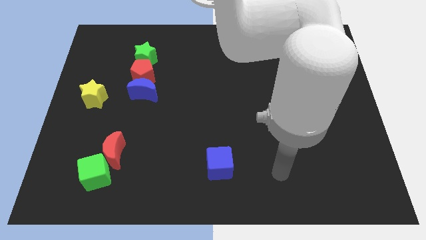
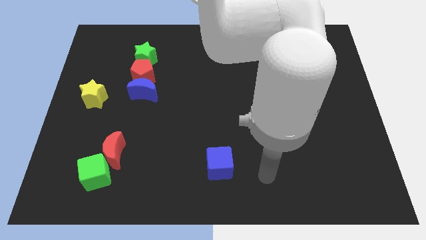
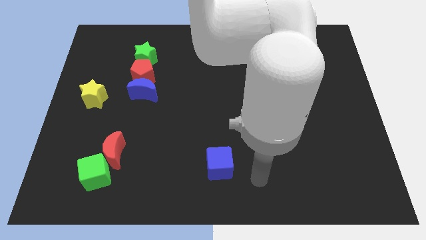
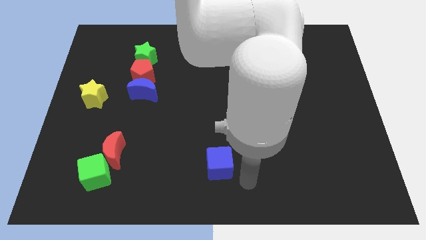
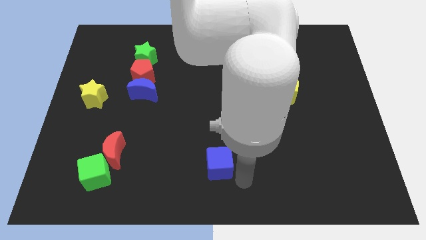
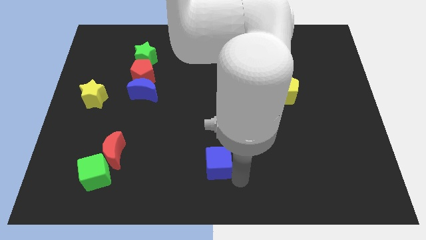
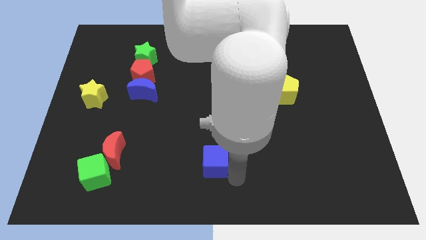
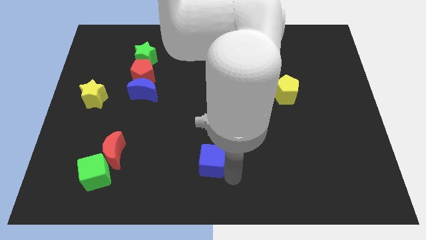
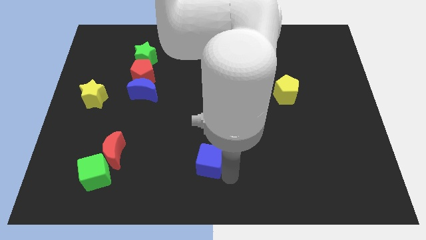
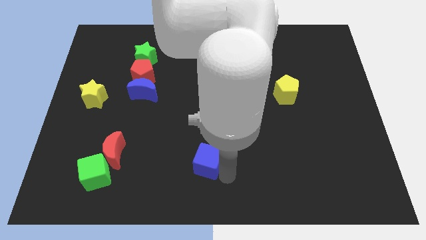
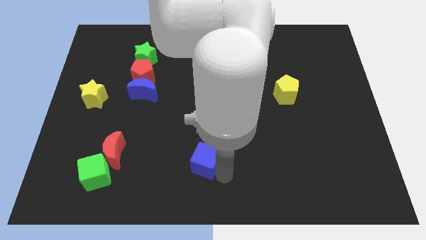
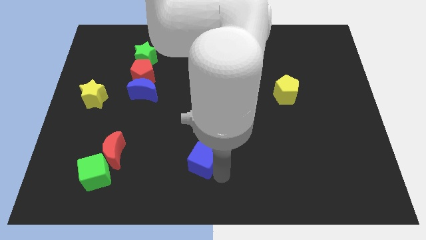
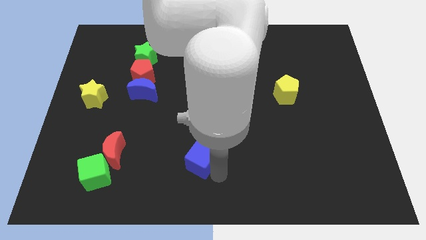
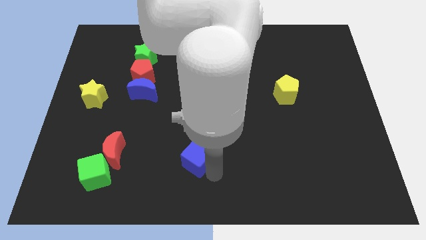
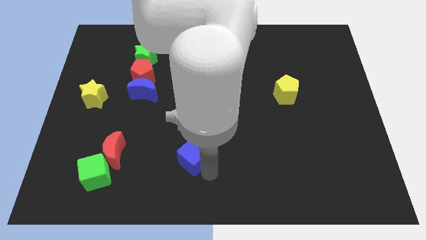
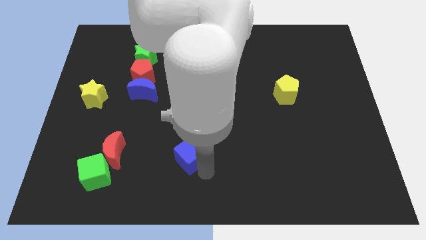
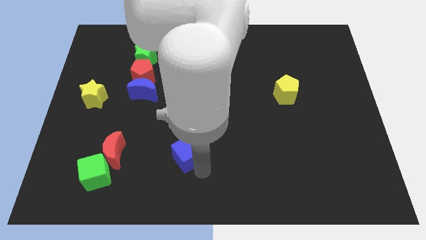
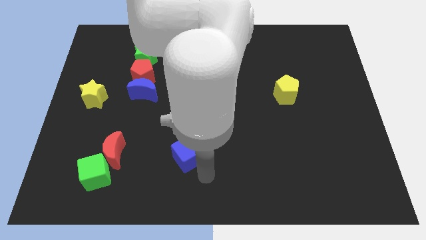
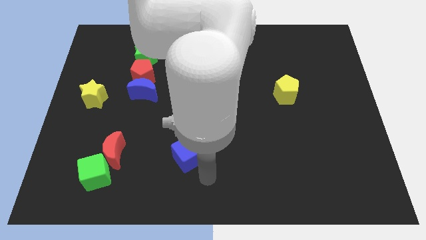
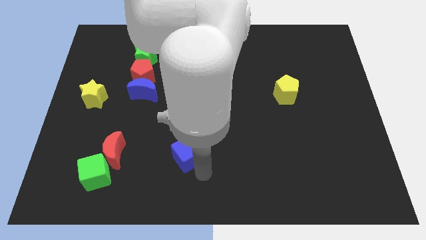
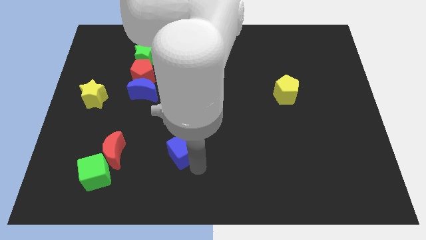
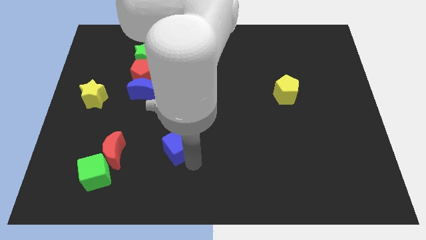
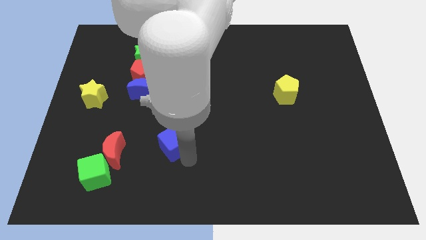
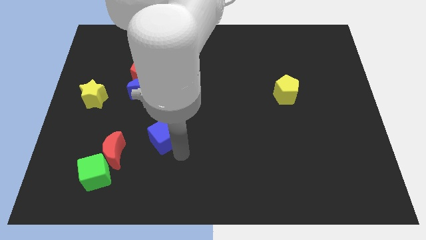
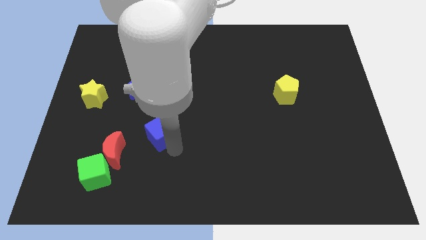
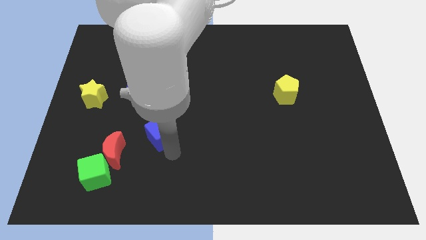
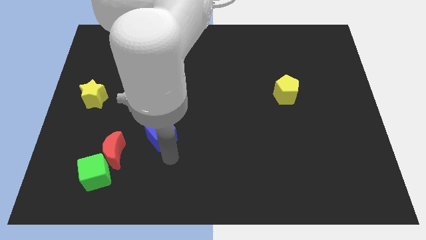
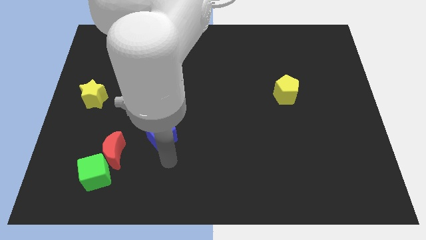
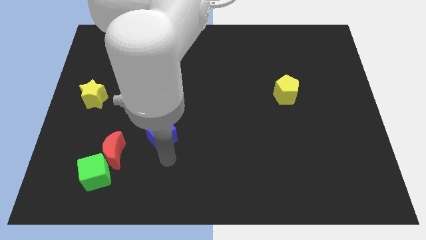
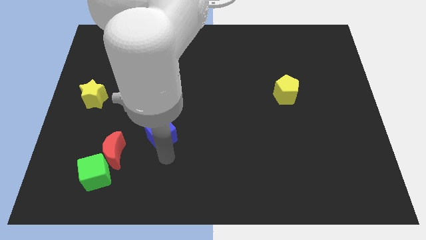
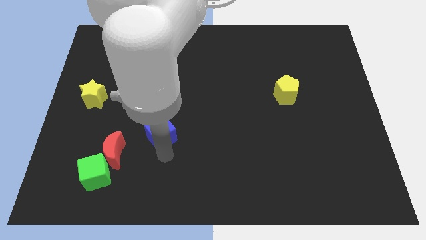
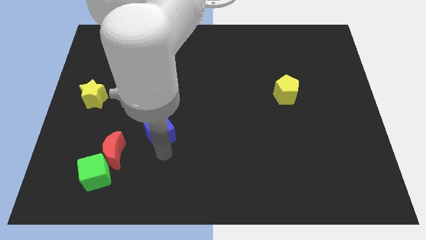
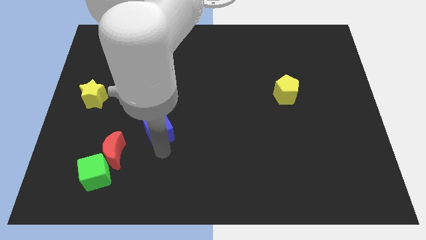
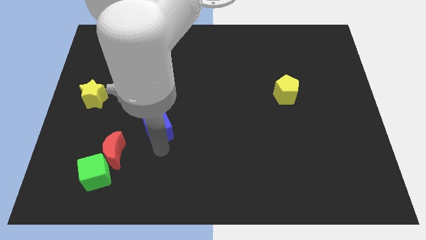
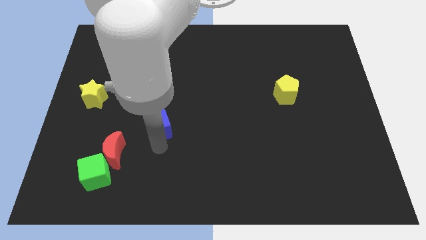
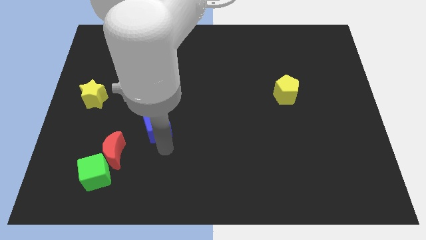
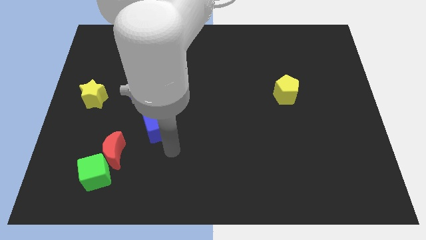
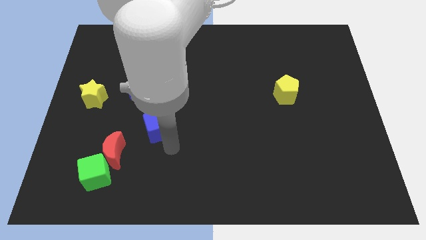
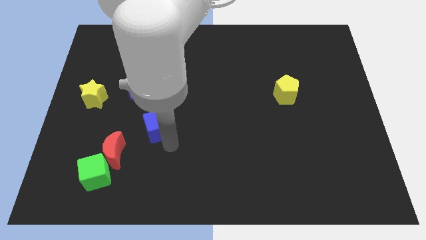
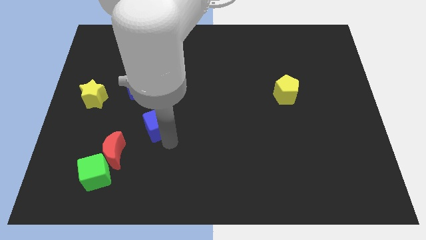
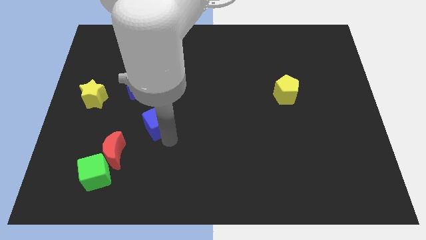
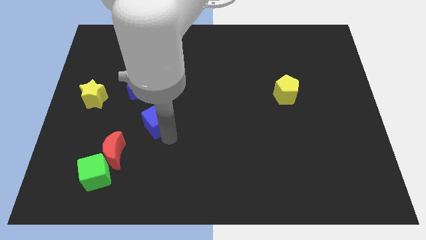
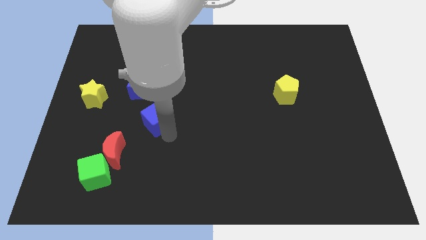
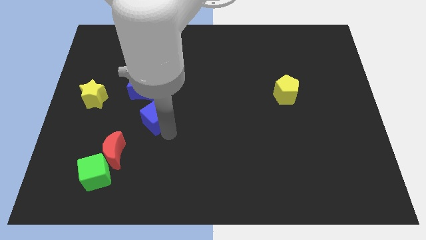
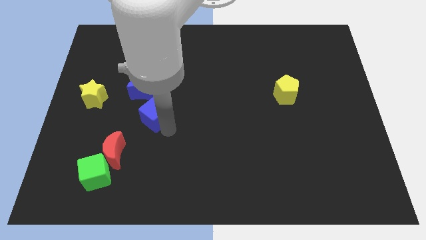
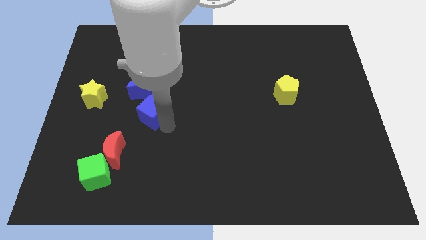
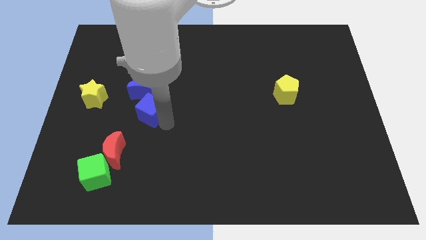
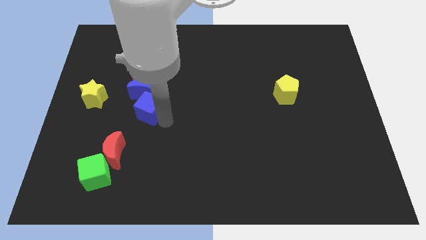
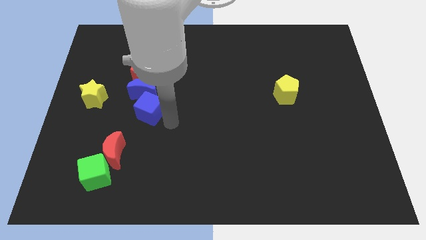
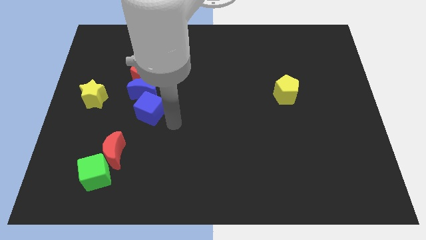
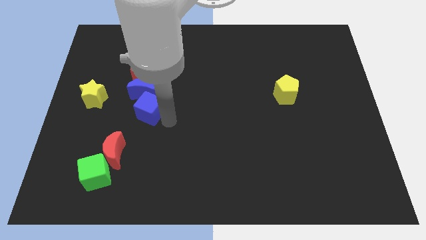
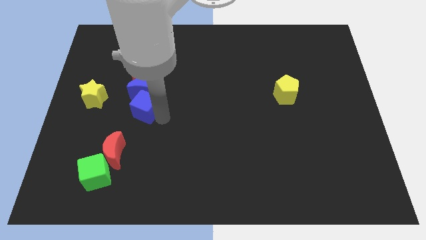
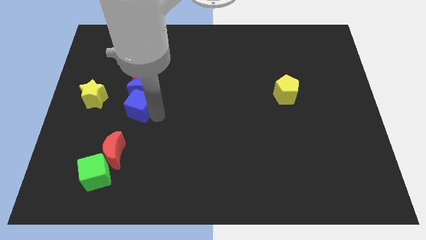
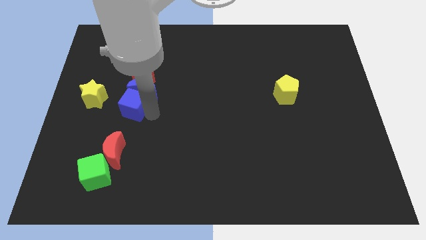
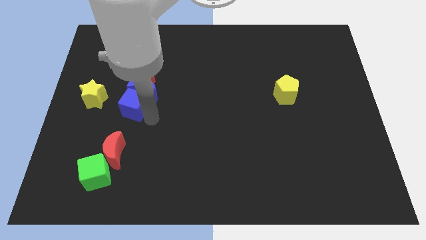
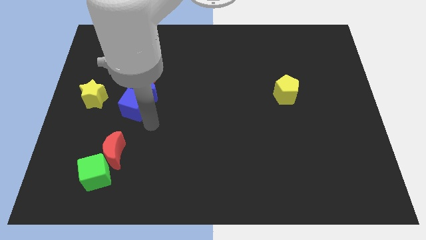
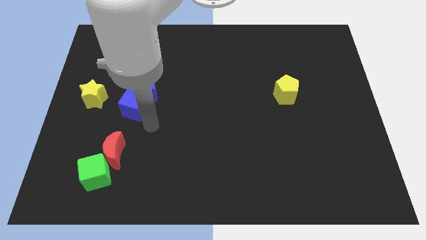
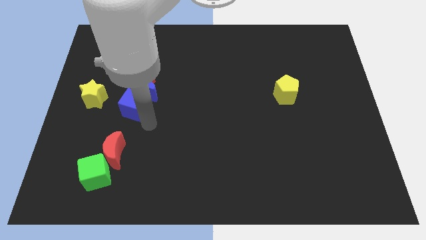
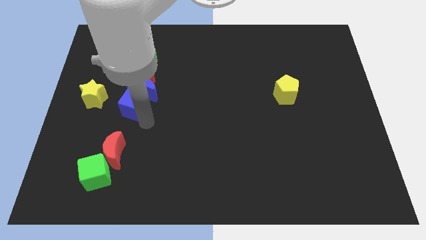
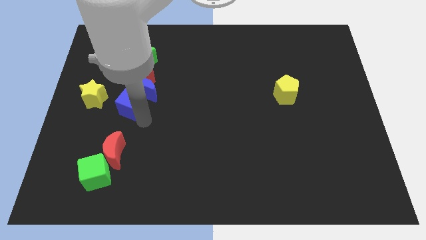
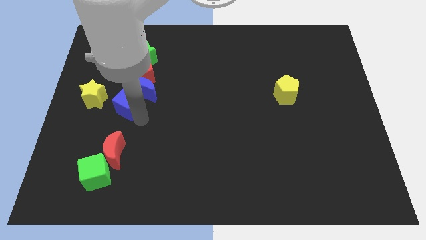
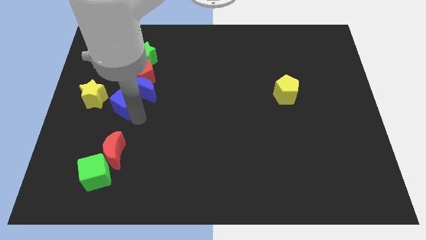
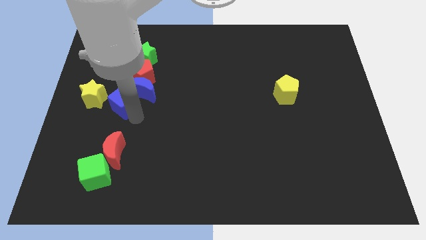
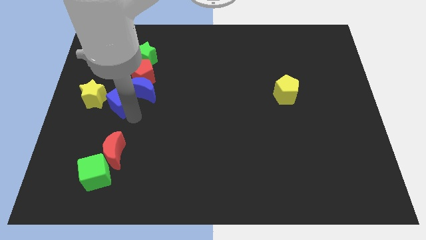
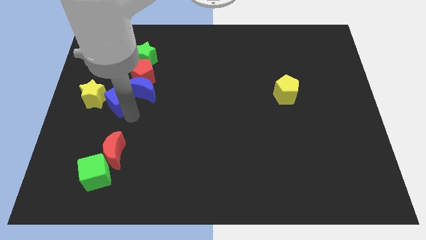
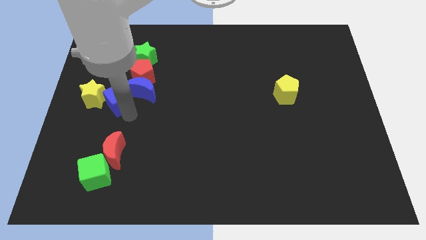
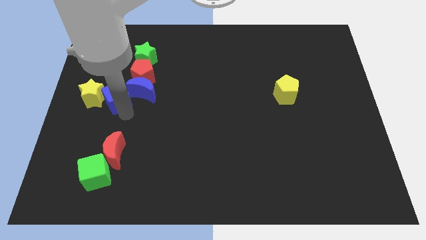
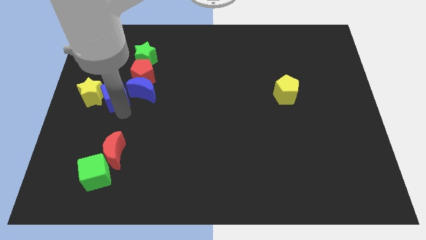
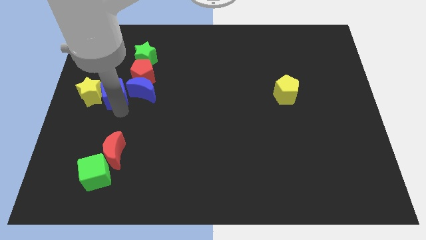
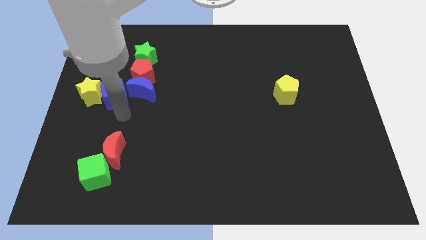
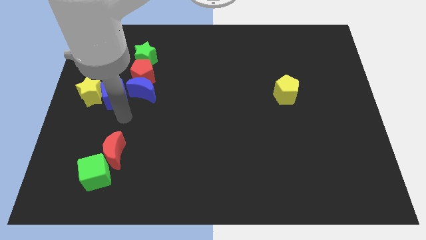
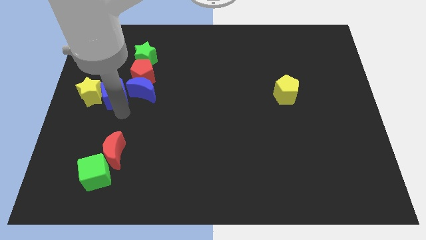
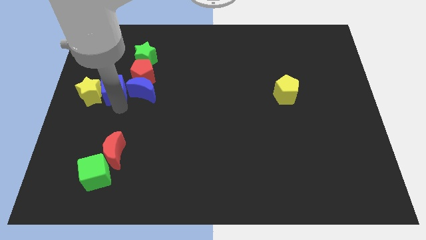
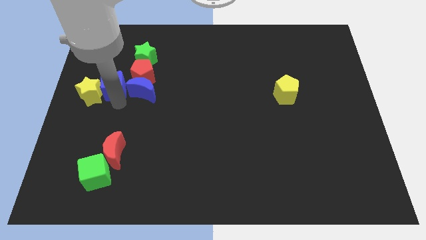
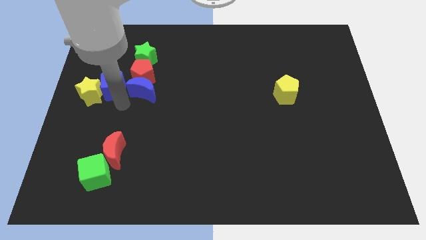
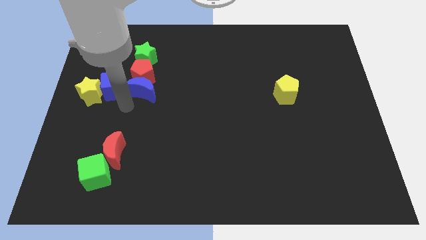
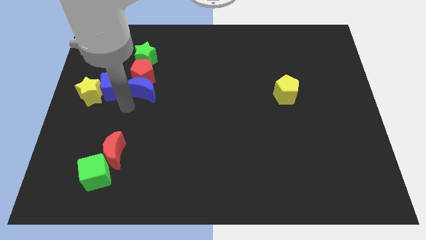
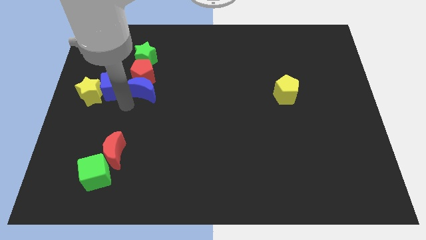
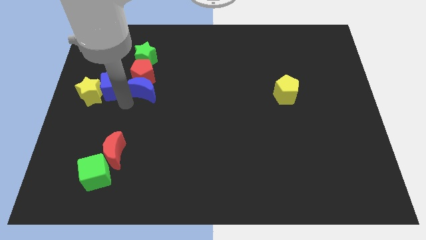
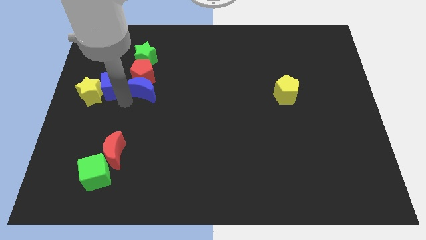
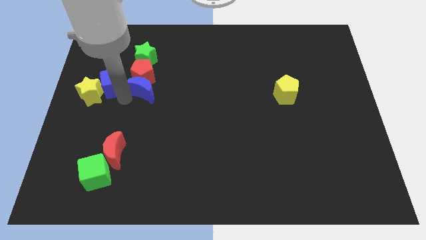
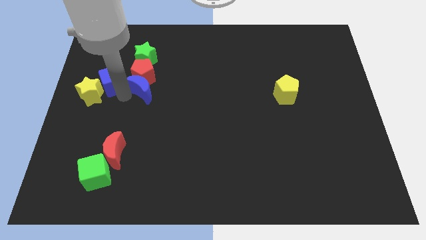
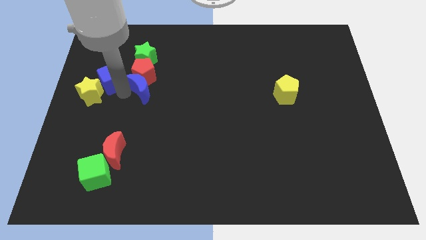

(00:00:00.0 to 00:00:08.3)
move the blue cube above the yellow star

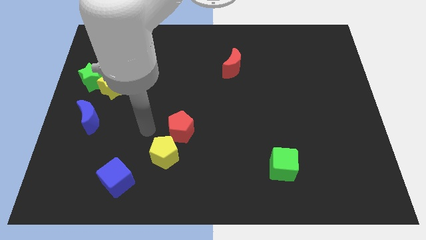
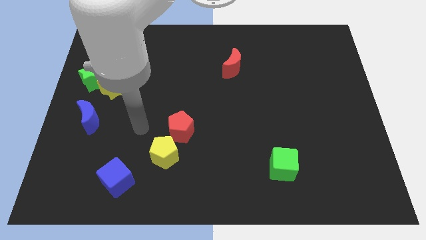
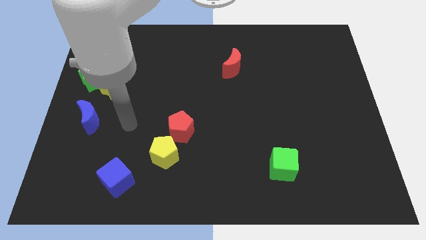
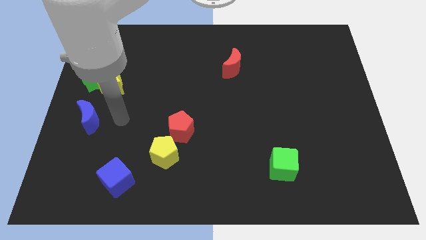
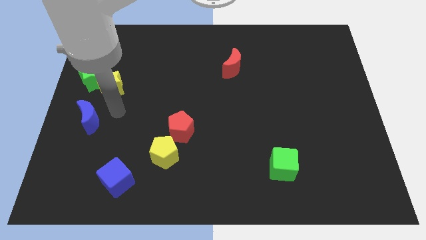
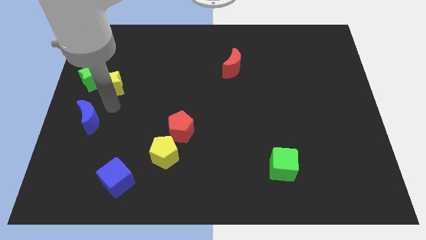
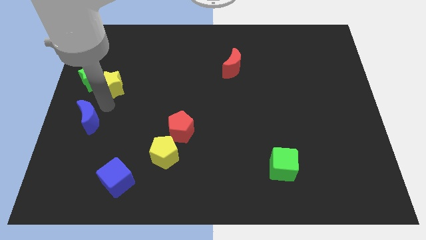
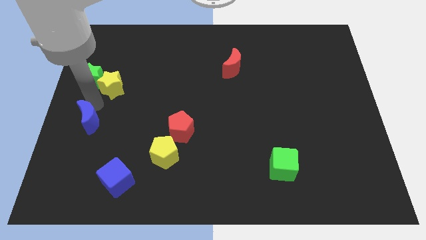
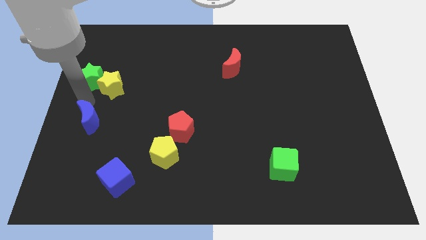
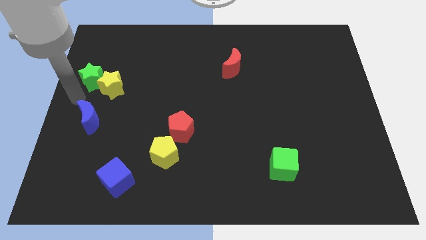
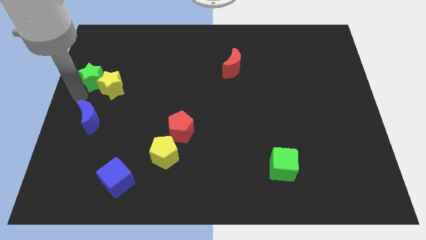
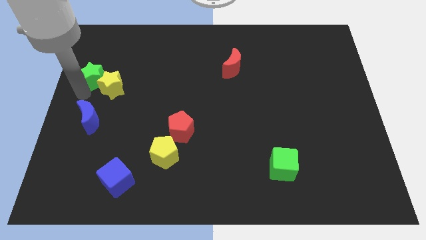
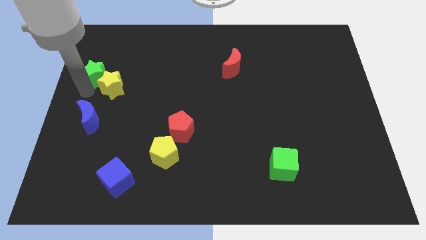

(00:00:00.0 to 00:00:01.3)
move the green star above the yellow star
